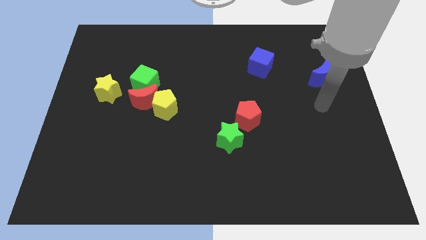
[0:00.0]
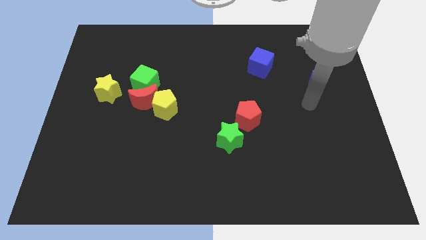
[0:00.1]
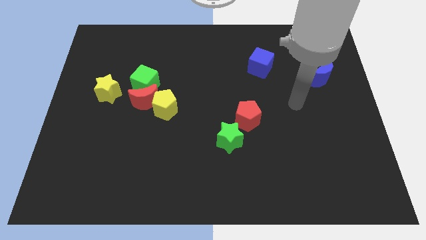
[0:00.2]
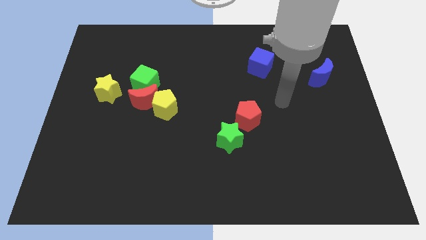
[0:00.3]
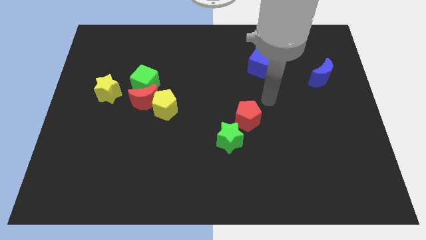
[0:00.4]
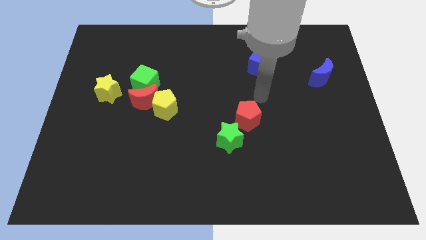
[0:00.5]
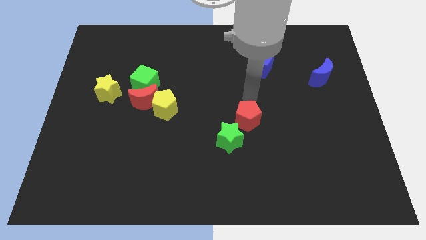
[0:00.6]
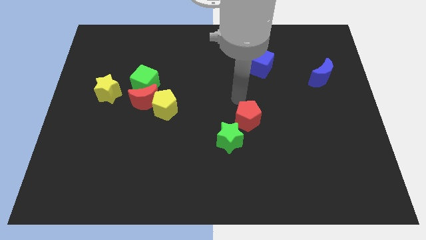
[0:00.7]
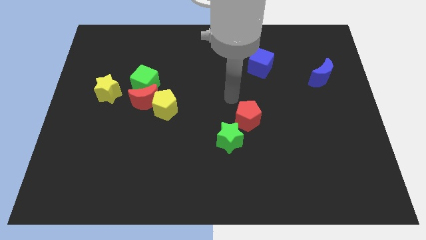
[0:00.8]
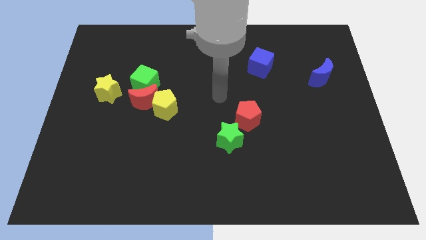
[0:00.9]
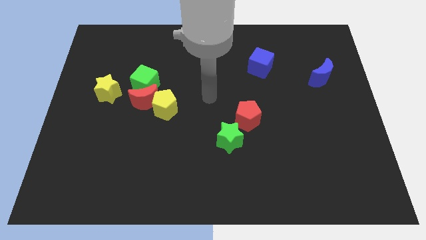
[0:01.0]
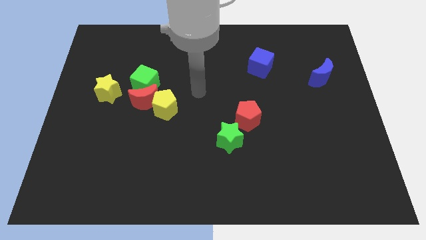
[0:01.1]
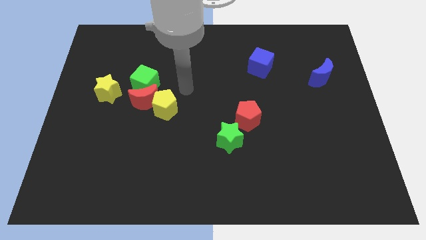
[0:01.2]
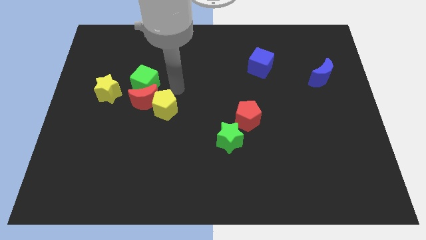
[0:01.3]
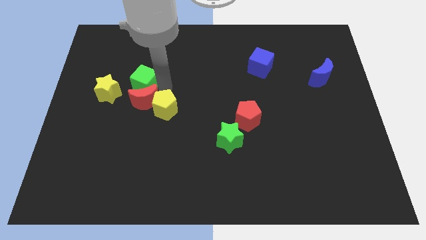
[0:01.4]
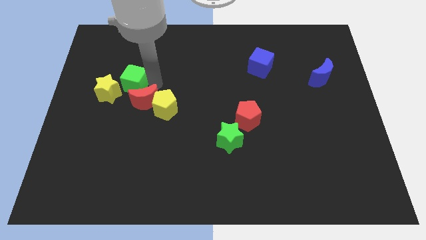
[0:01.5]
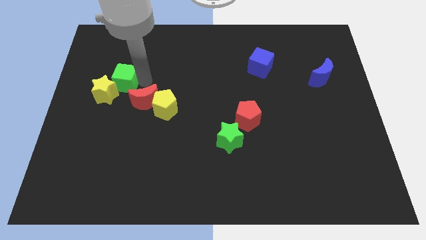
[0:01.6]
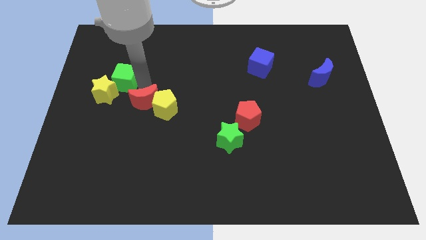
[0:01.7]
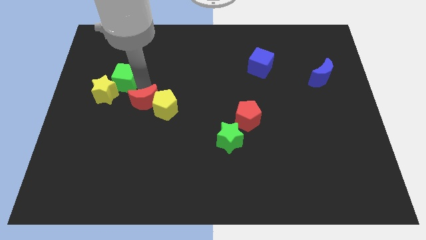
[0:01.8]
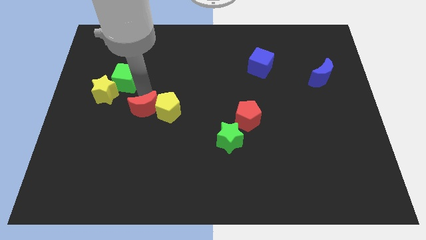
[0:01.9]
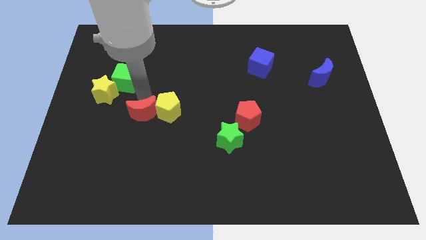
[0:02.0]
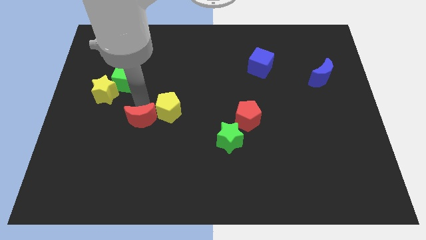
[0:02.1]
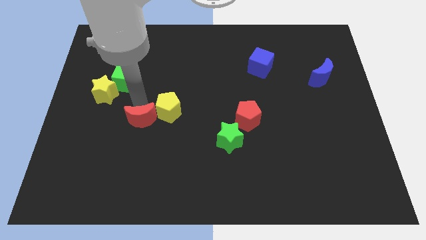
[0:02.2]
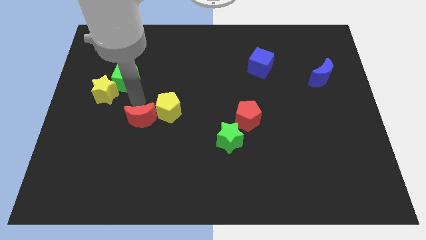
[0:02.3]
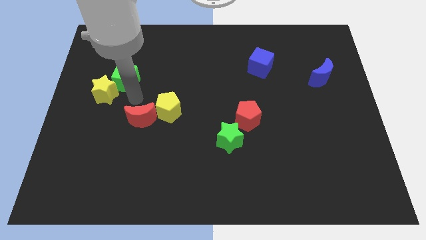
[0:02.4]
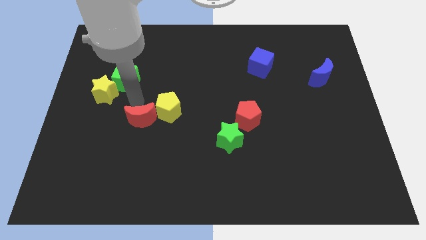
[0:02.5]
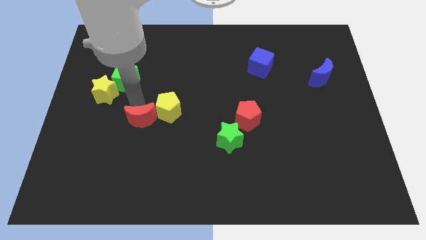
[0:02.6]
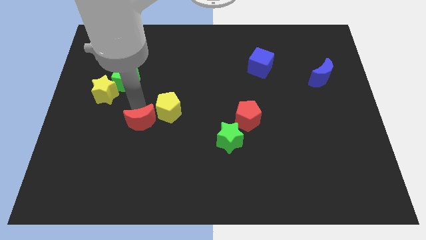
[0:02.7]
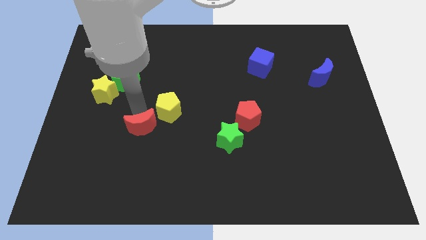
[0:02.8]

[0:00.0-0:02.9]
pull the red moon apart from the group

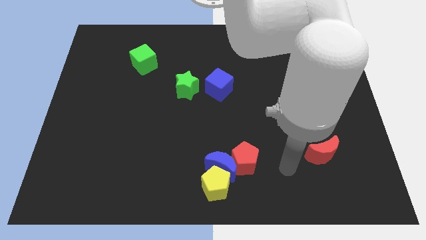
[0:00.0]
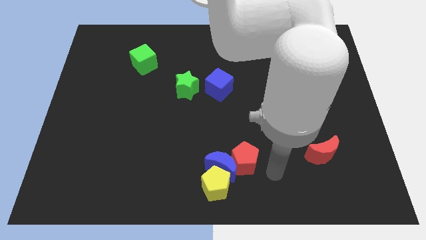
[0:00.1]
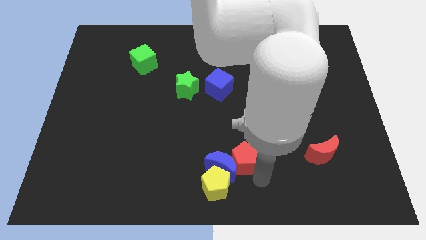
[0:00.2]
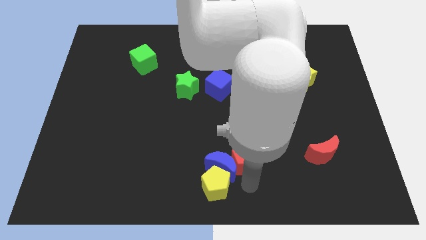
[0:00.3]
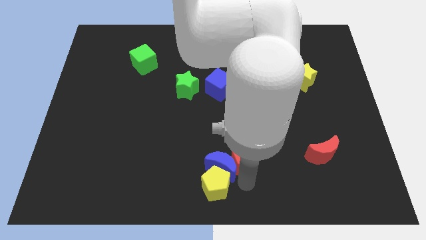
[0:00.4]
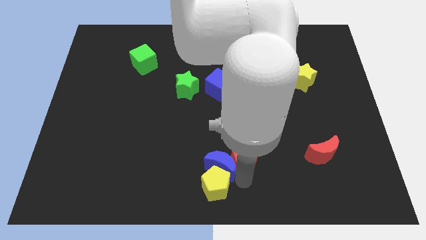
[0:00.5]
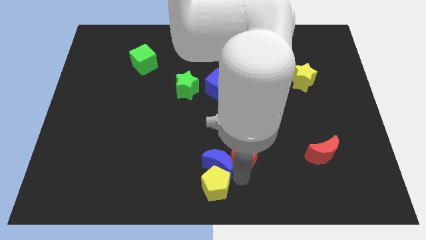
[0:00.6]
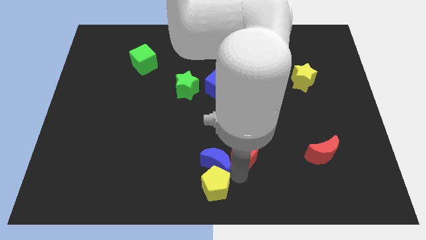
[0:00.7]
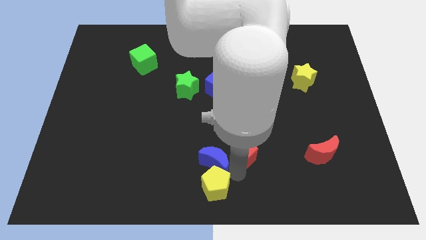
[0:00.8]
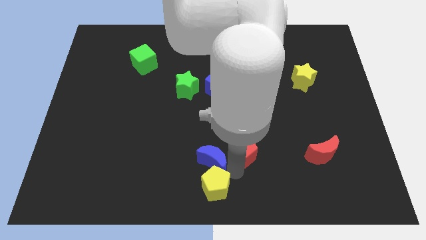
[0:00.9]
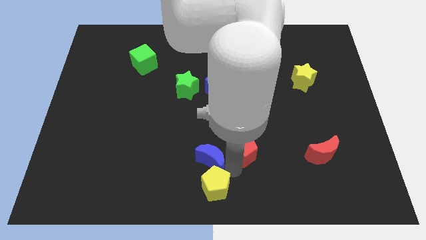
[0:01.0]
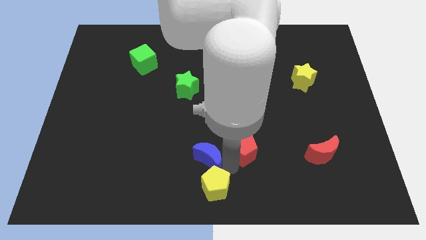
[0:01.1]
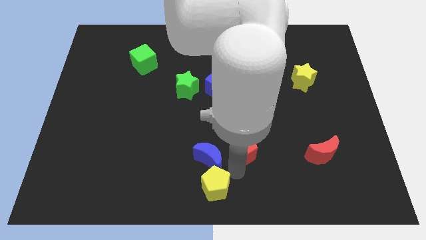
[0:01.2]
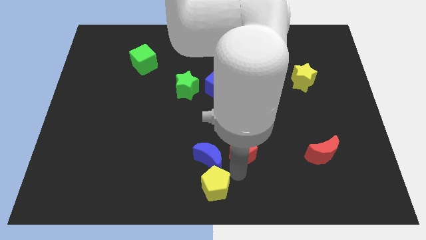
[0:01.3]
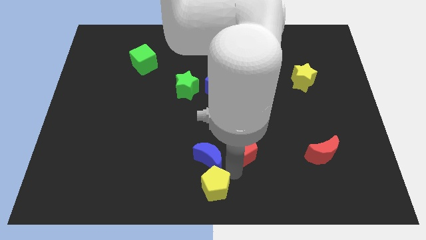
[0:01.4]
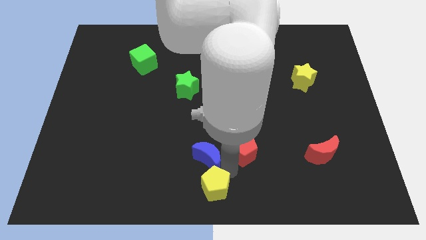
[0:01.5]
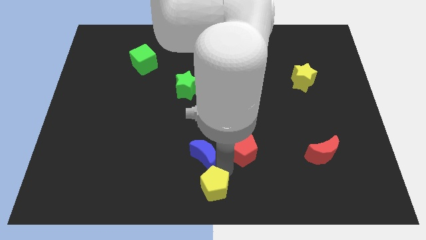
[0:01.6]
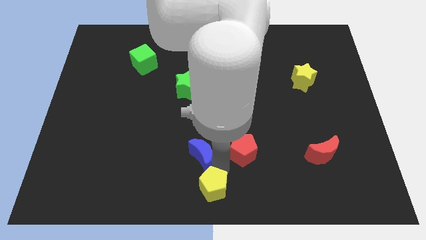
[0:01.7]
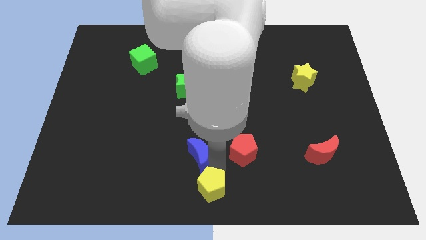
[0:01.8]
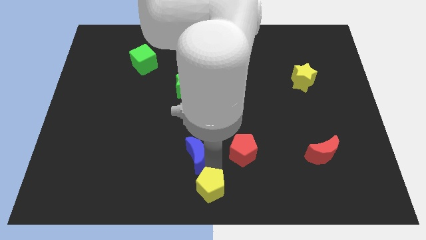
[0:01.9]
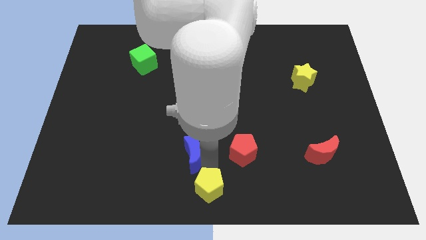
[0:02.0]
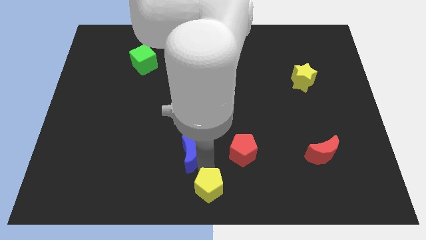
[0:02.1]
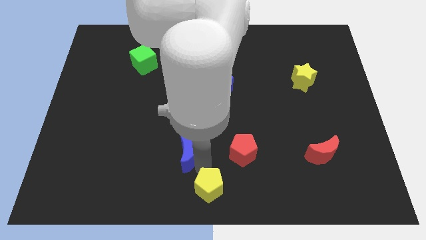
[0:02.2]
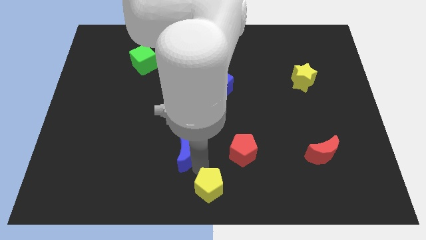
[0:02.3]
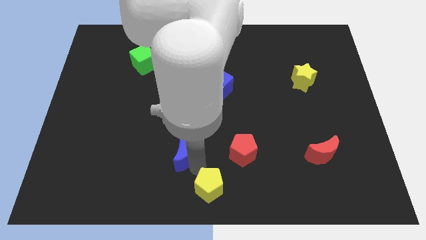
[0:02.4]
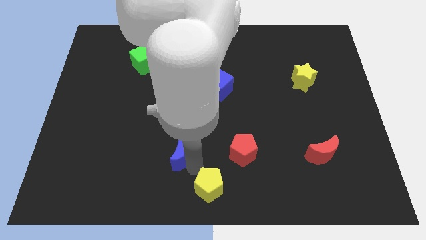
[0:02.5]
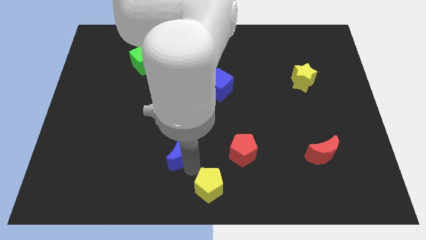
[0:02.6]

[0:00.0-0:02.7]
separate the blue moon from the yellow pentagon and red pentagon

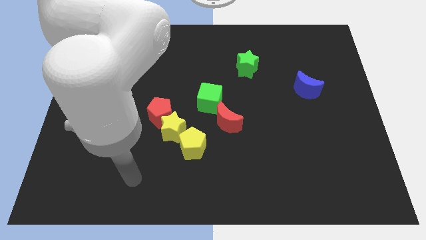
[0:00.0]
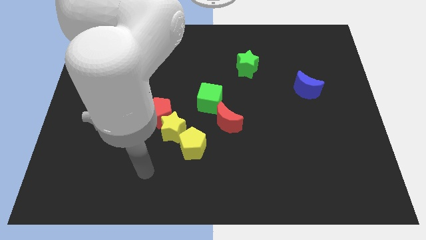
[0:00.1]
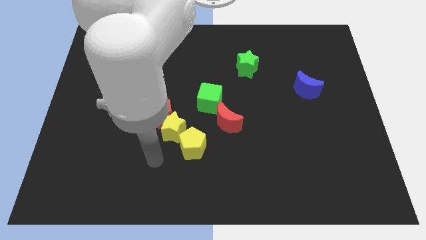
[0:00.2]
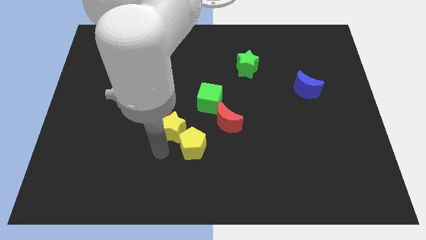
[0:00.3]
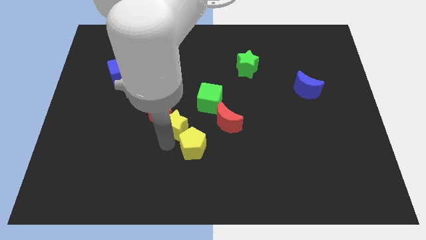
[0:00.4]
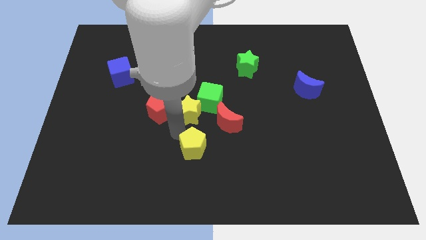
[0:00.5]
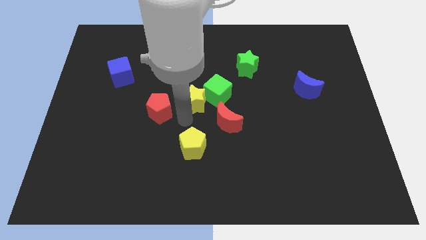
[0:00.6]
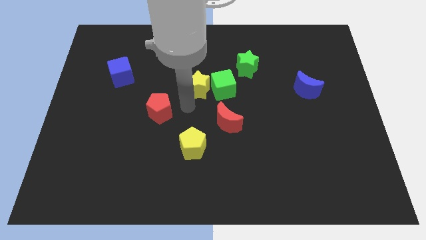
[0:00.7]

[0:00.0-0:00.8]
move the red pentagon away from the yellow star

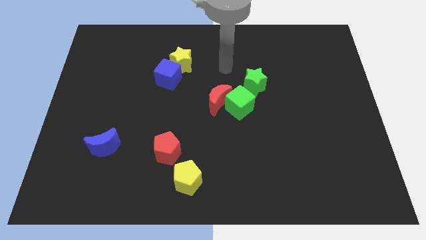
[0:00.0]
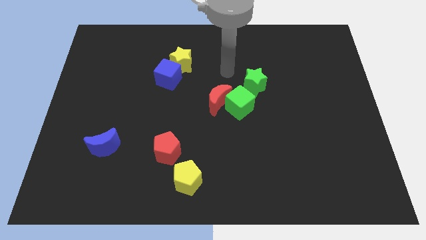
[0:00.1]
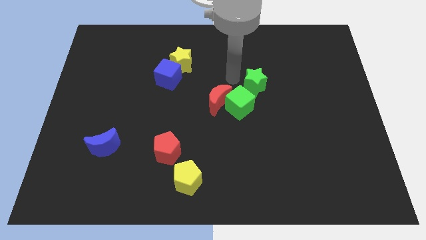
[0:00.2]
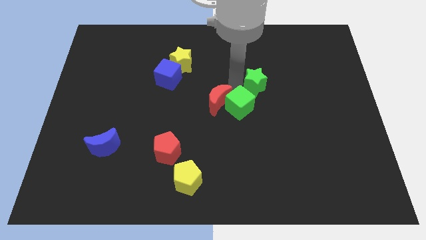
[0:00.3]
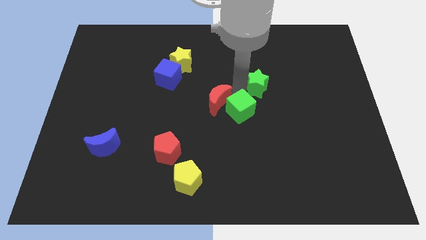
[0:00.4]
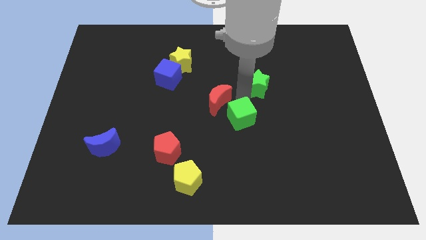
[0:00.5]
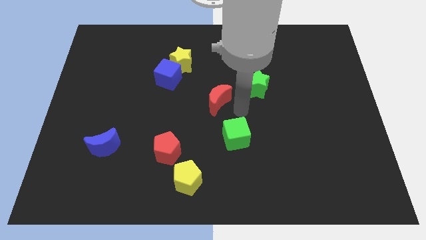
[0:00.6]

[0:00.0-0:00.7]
pull the red moon apart from the green cube

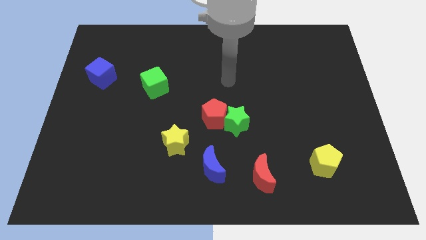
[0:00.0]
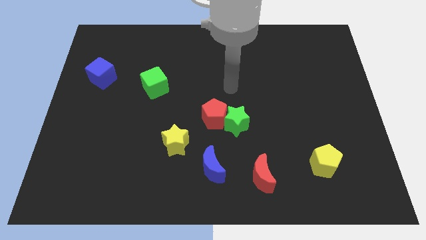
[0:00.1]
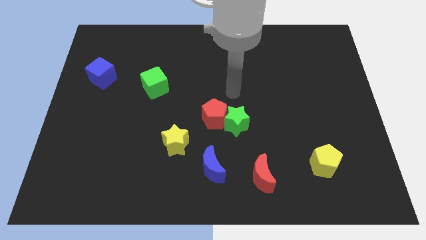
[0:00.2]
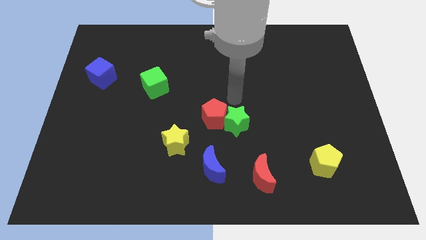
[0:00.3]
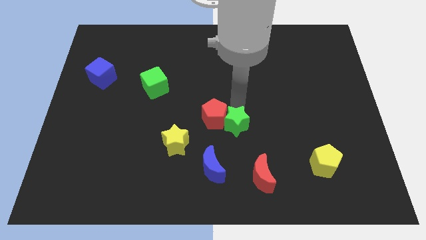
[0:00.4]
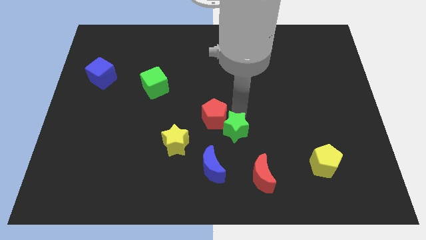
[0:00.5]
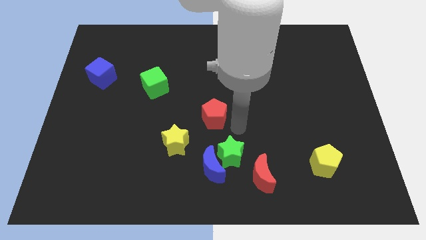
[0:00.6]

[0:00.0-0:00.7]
pull the red pentagon apart from the green star

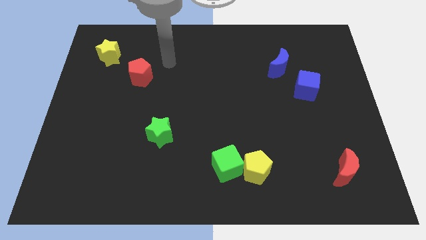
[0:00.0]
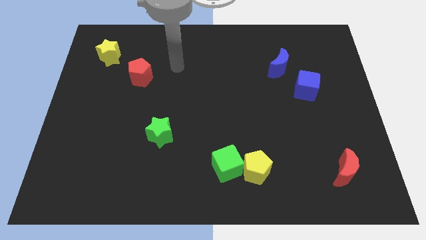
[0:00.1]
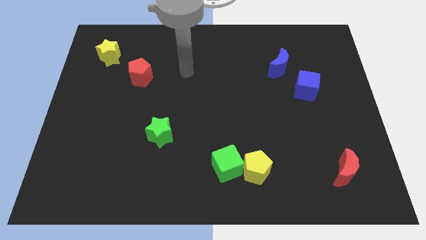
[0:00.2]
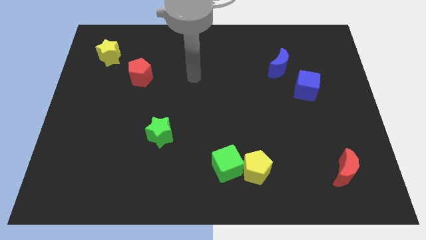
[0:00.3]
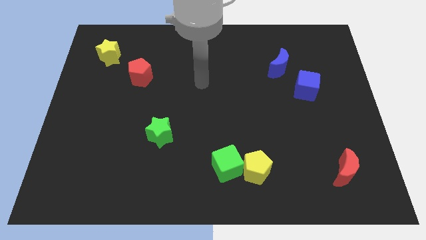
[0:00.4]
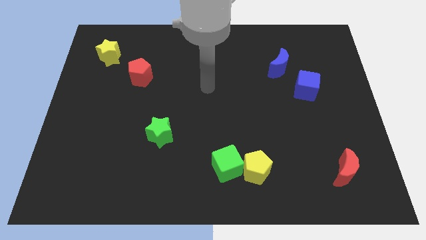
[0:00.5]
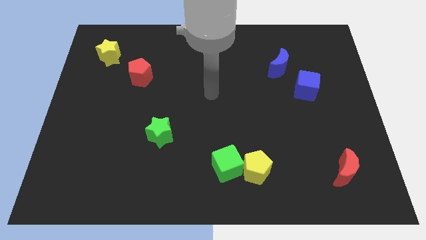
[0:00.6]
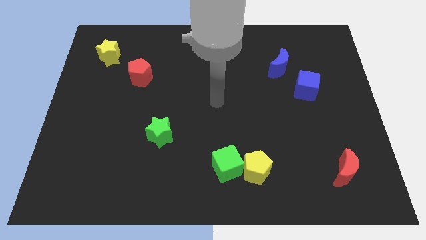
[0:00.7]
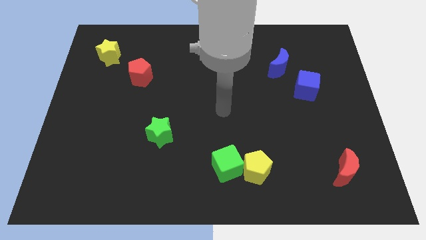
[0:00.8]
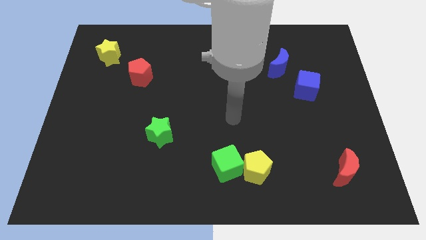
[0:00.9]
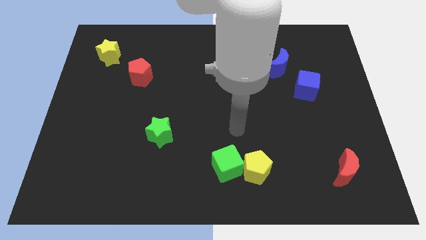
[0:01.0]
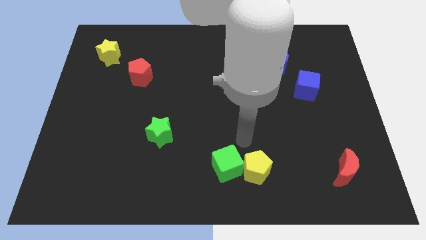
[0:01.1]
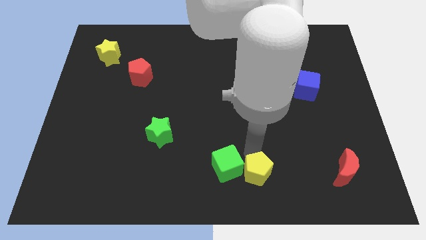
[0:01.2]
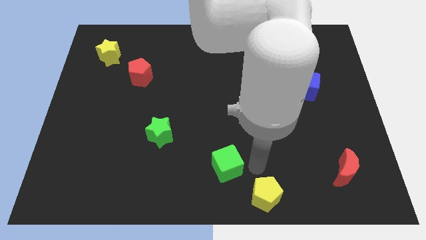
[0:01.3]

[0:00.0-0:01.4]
move the green cube away from the yellow pentagon

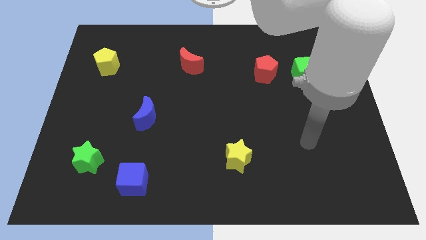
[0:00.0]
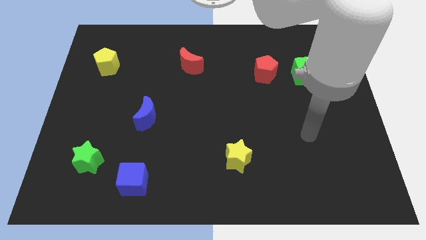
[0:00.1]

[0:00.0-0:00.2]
pull the red pentagon apart from the green cube

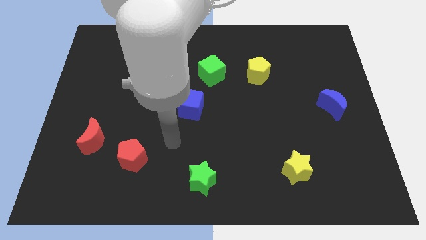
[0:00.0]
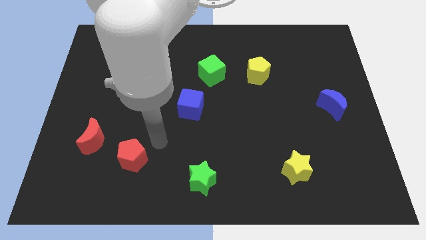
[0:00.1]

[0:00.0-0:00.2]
separate the red moon from the red pentagon
